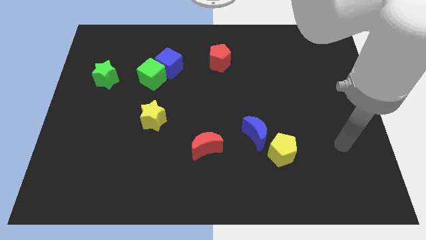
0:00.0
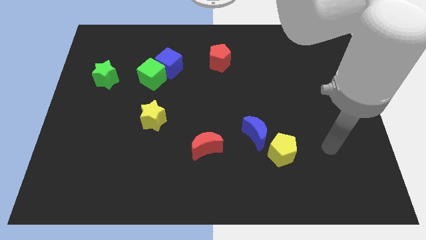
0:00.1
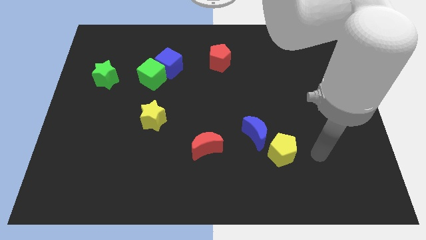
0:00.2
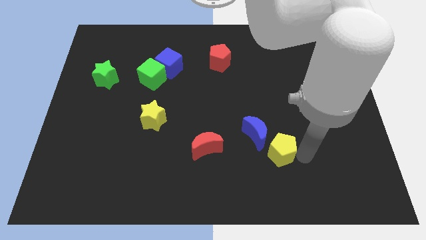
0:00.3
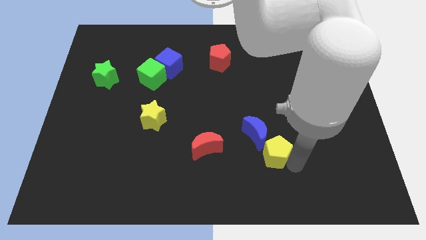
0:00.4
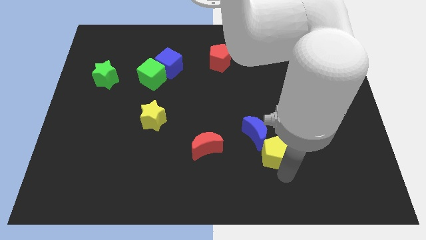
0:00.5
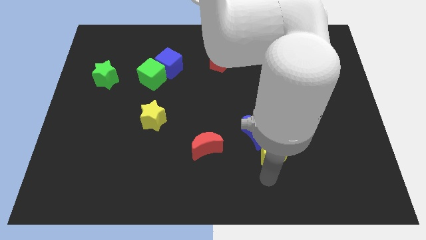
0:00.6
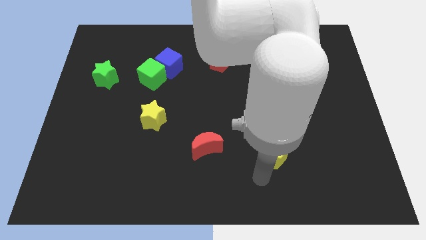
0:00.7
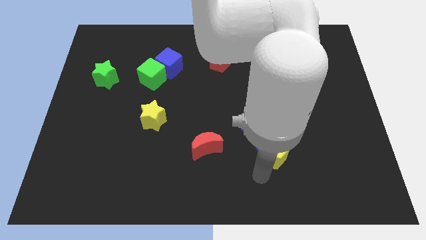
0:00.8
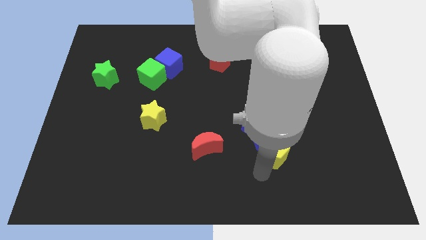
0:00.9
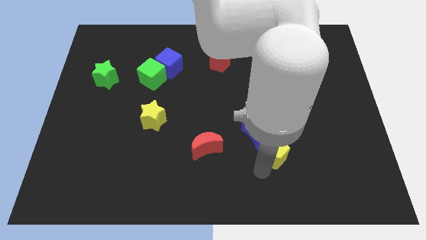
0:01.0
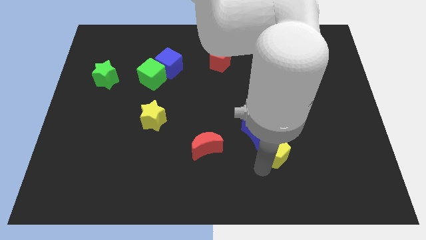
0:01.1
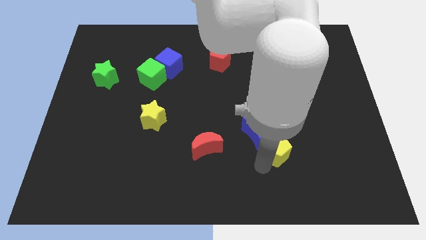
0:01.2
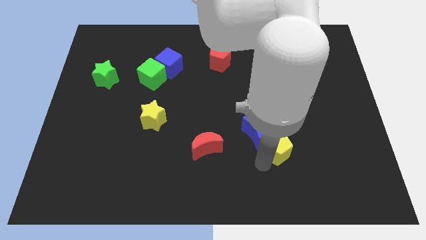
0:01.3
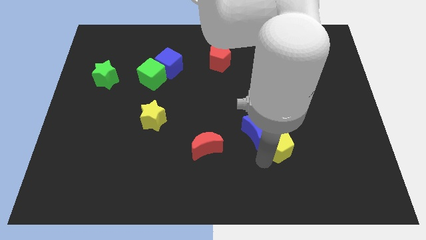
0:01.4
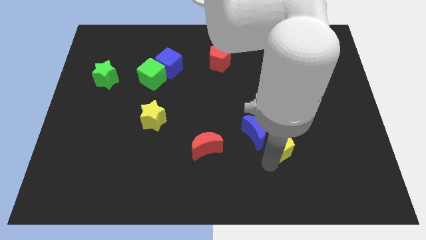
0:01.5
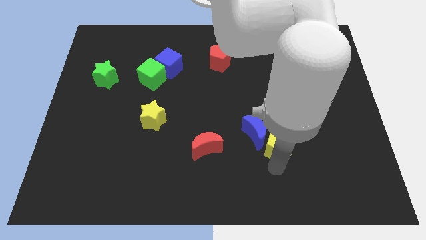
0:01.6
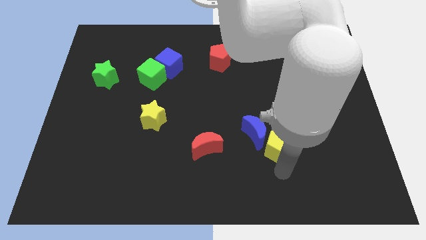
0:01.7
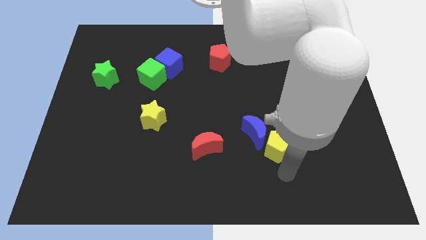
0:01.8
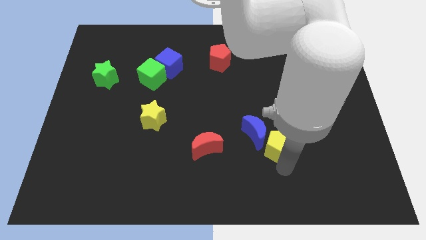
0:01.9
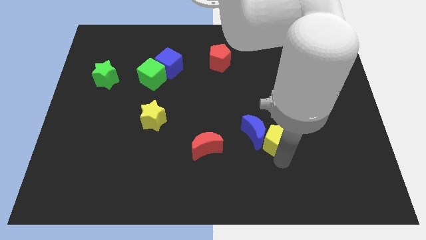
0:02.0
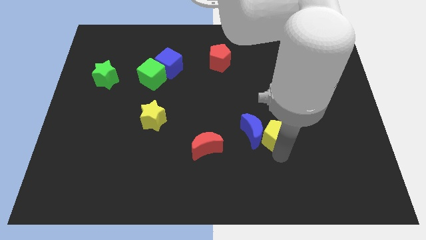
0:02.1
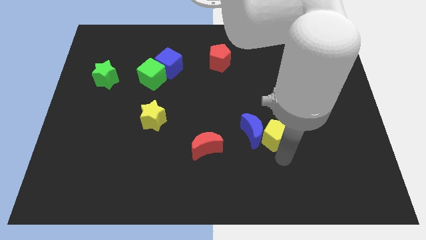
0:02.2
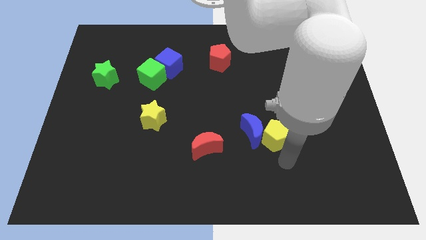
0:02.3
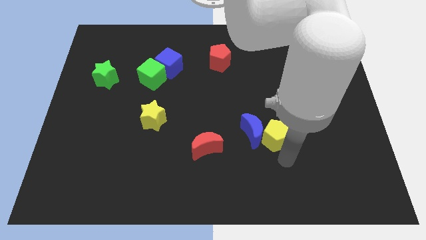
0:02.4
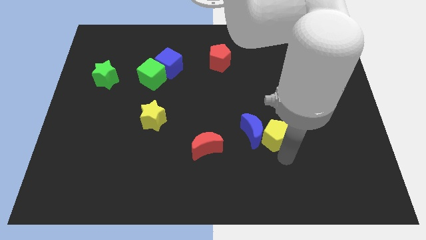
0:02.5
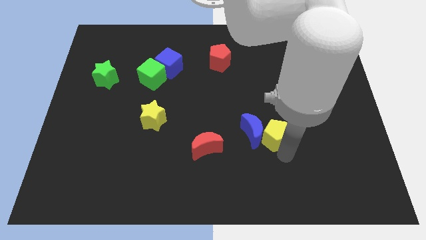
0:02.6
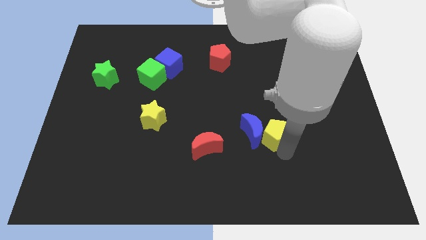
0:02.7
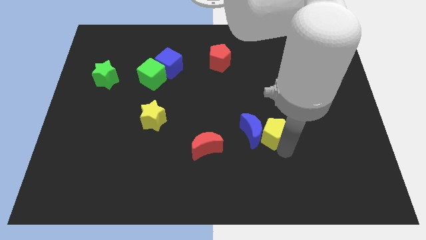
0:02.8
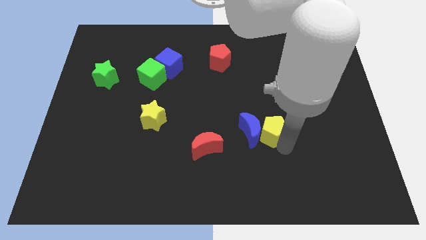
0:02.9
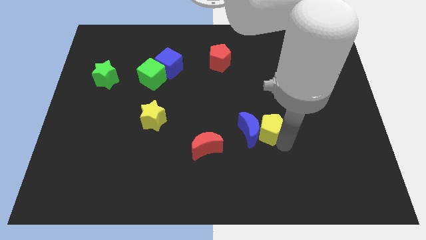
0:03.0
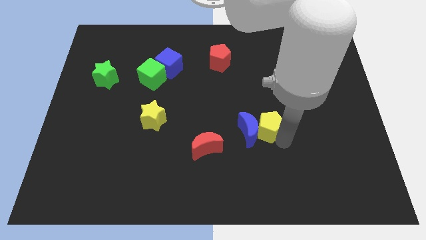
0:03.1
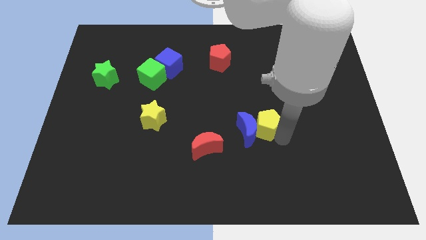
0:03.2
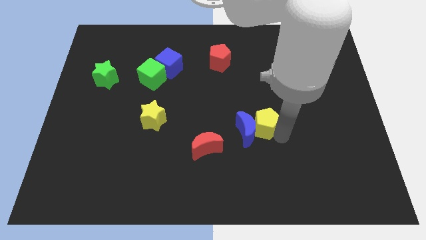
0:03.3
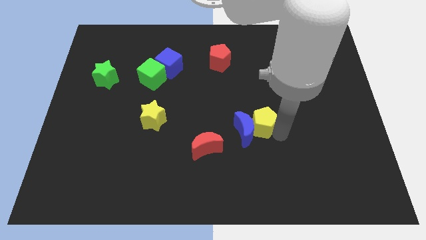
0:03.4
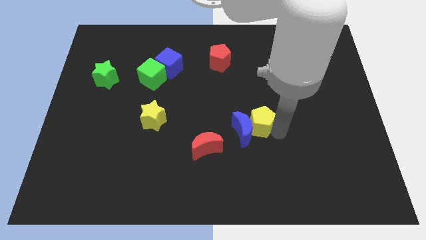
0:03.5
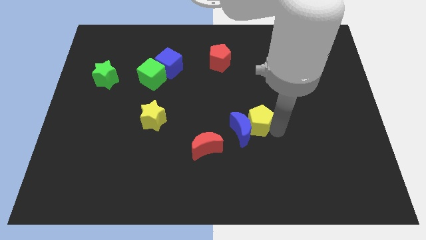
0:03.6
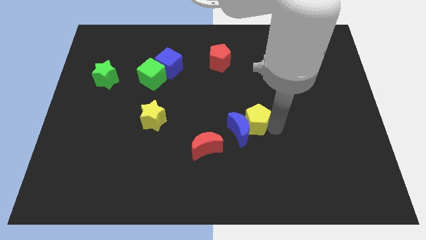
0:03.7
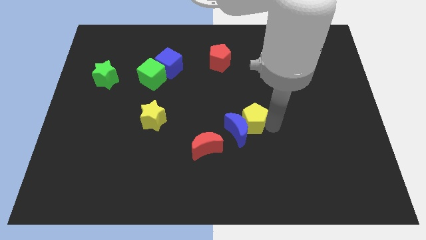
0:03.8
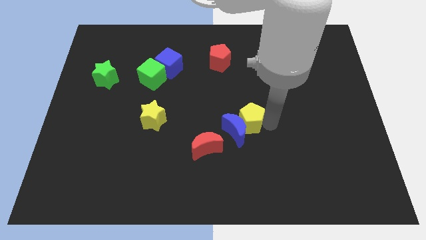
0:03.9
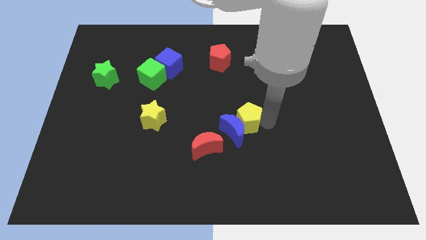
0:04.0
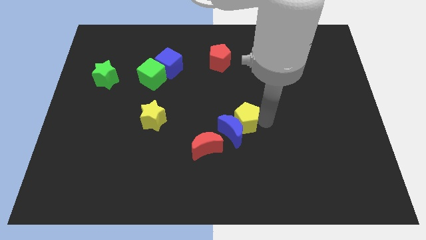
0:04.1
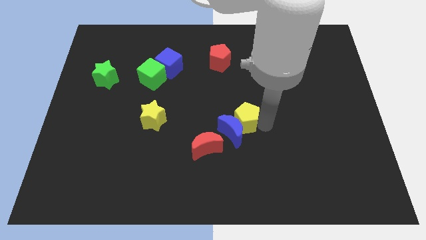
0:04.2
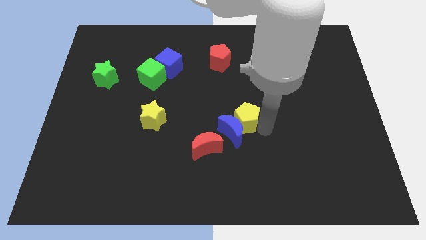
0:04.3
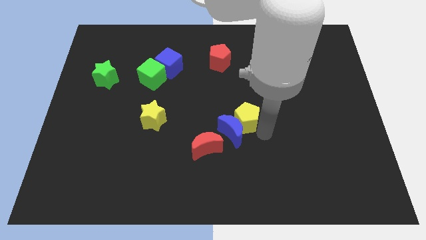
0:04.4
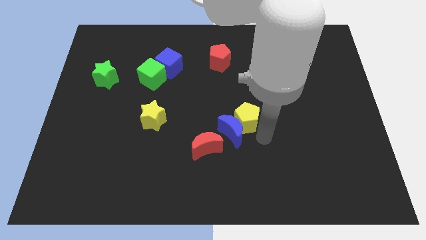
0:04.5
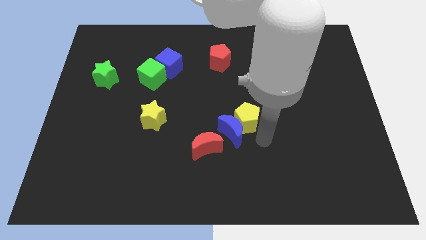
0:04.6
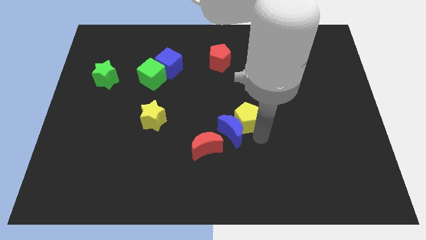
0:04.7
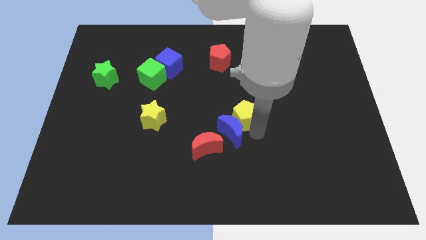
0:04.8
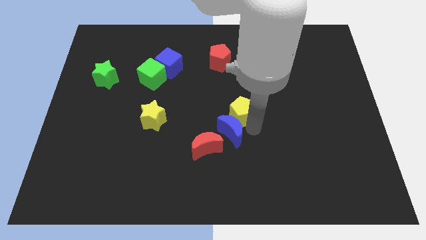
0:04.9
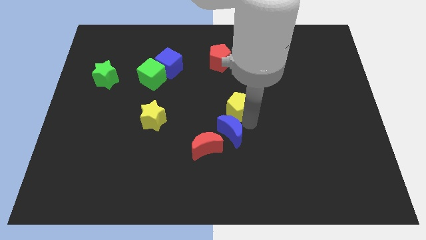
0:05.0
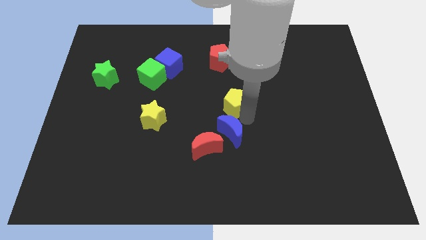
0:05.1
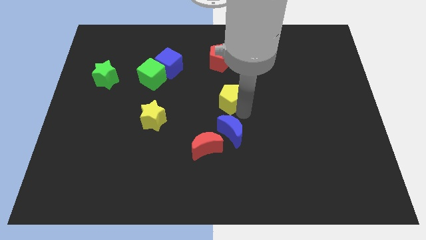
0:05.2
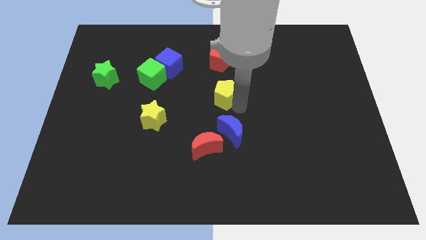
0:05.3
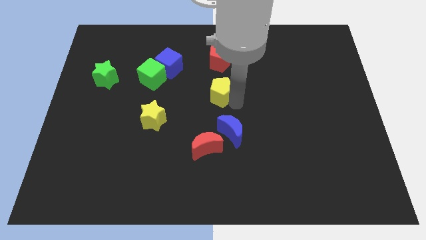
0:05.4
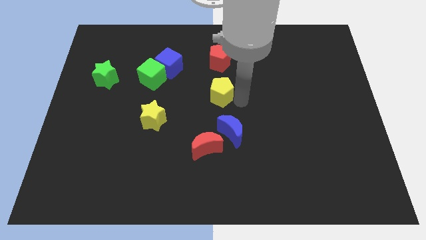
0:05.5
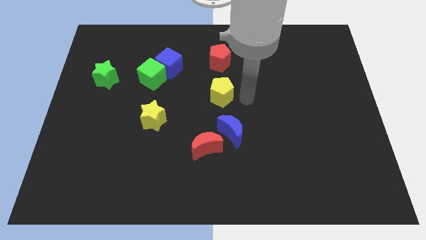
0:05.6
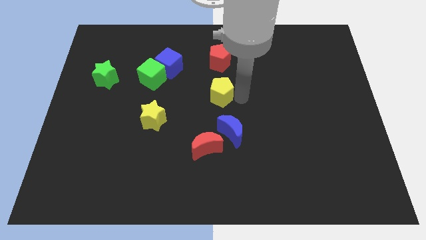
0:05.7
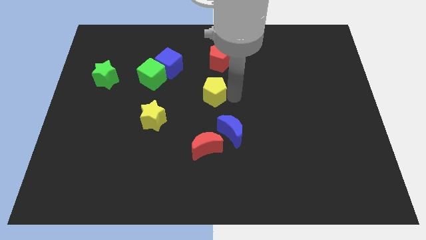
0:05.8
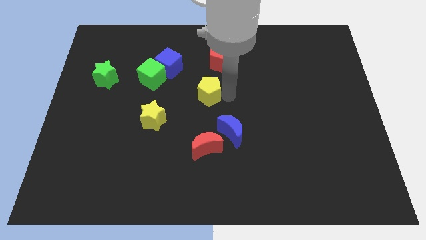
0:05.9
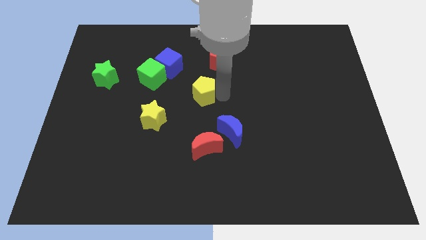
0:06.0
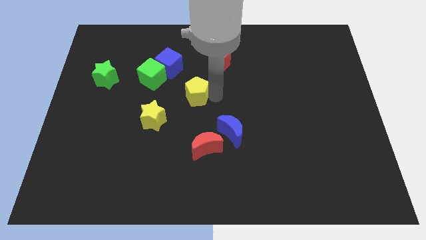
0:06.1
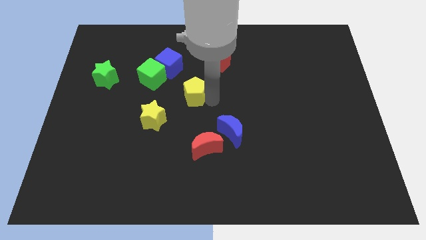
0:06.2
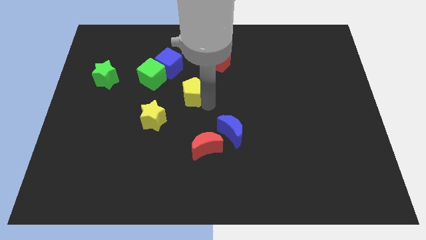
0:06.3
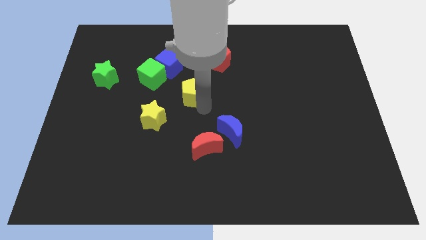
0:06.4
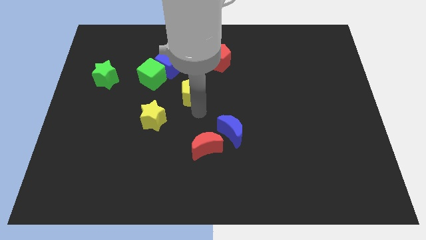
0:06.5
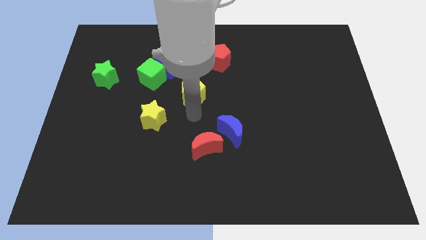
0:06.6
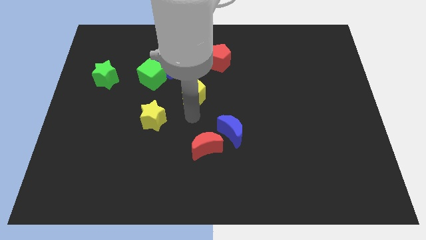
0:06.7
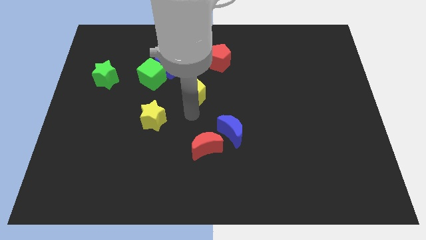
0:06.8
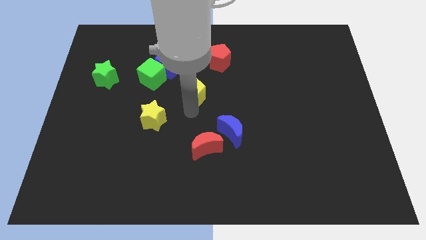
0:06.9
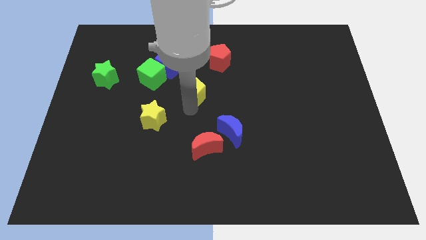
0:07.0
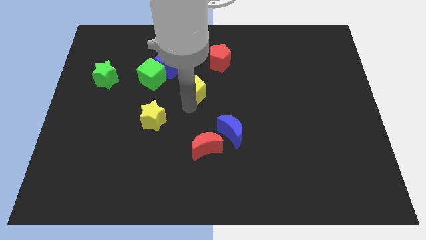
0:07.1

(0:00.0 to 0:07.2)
push the yellow pentagon just right of the green cube

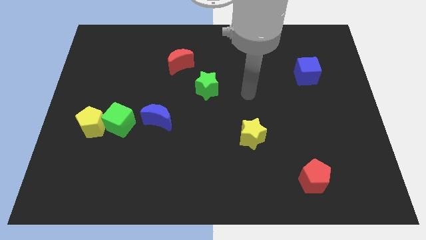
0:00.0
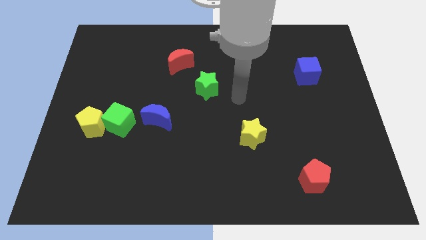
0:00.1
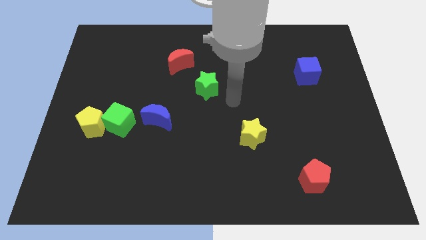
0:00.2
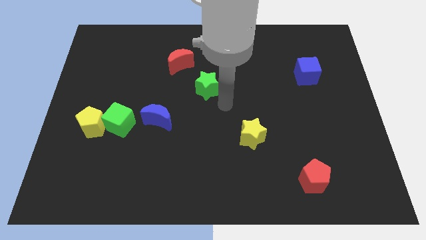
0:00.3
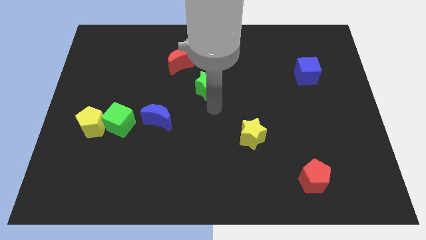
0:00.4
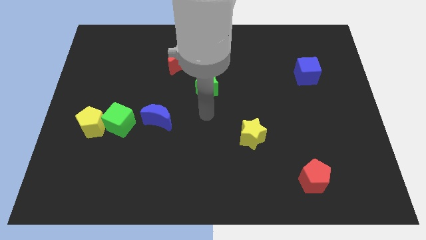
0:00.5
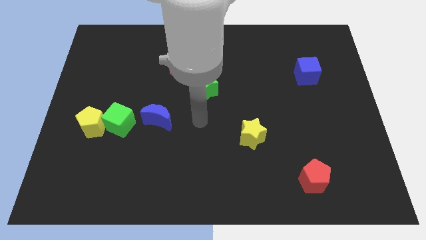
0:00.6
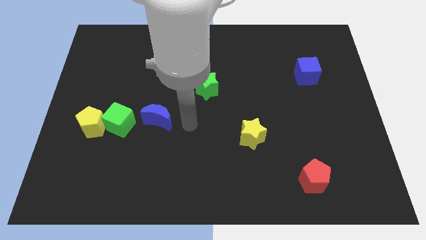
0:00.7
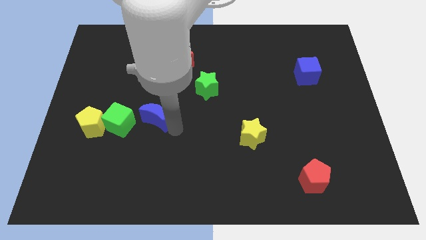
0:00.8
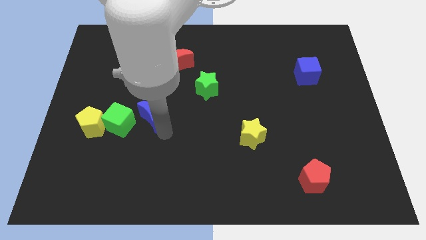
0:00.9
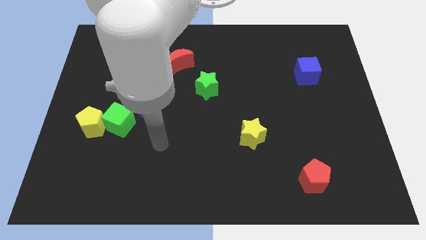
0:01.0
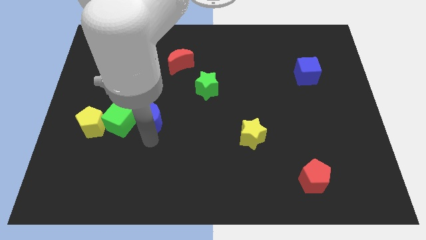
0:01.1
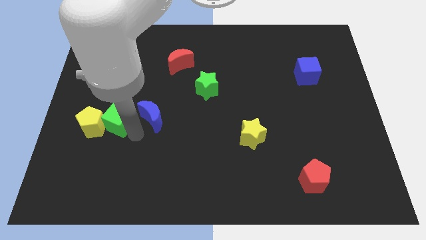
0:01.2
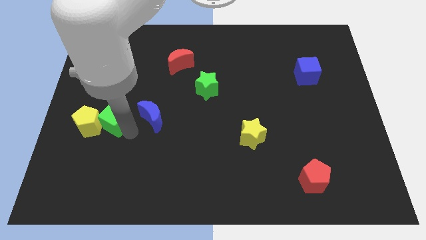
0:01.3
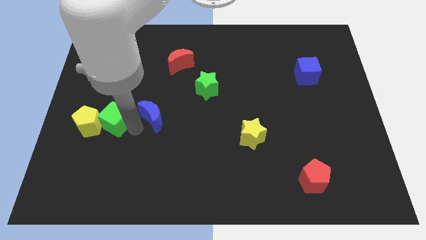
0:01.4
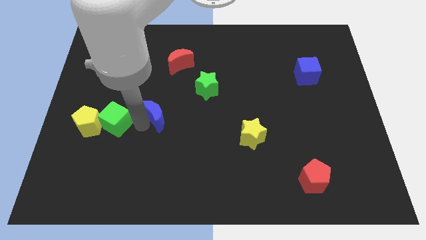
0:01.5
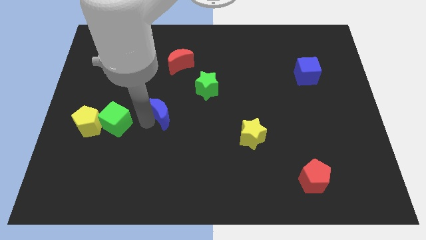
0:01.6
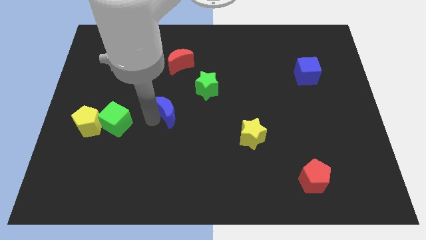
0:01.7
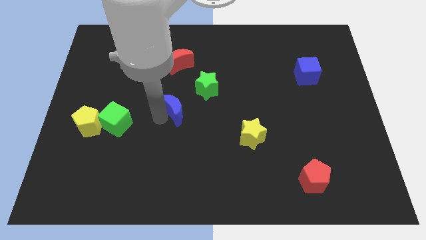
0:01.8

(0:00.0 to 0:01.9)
move the blue moon to the bottom of the red moon
